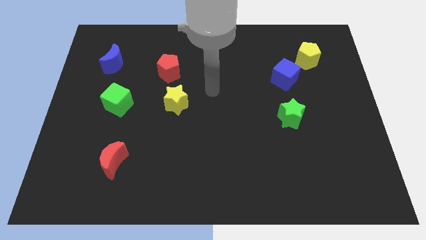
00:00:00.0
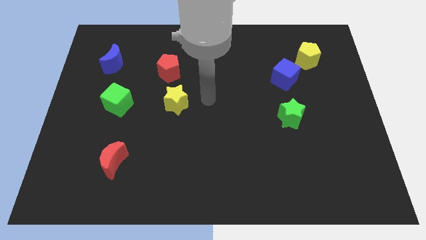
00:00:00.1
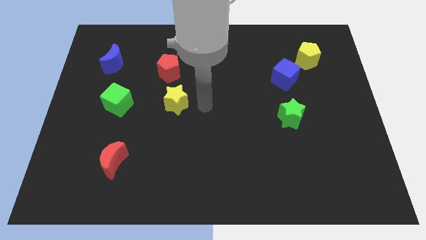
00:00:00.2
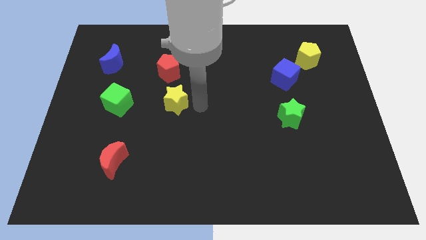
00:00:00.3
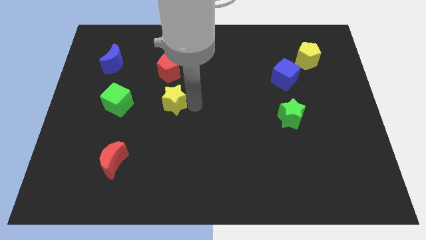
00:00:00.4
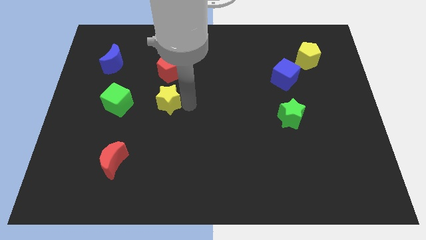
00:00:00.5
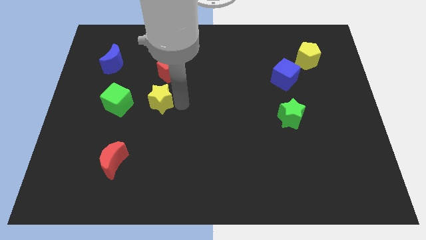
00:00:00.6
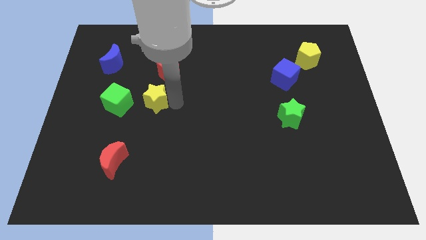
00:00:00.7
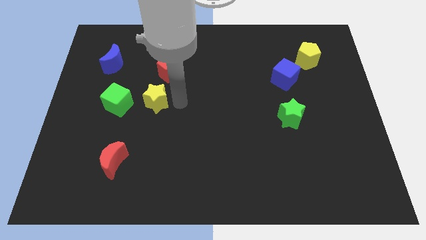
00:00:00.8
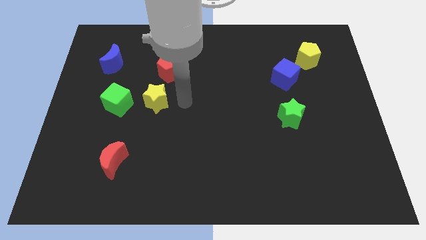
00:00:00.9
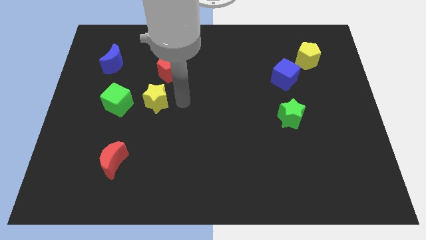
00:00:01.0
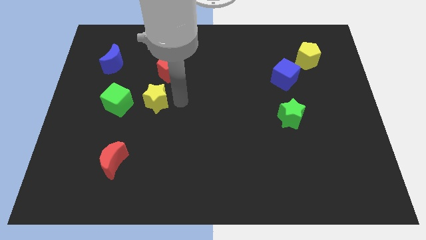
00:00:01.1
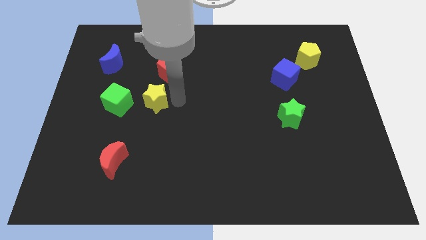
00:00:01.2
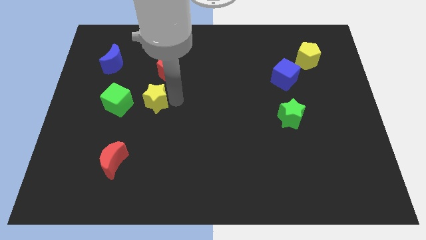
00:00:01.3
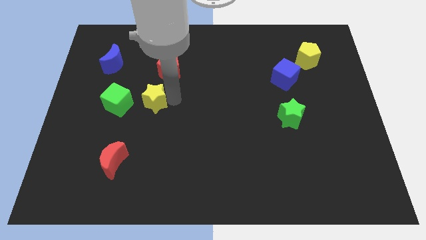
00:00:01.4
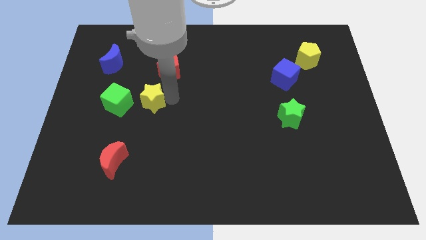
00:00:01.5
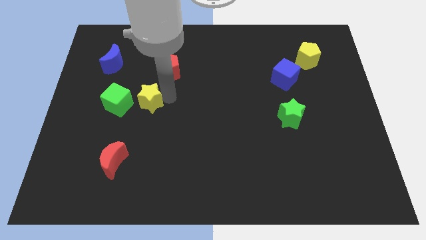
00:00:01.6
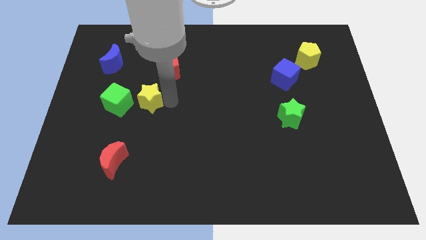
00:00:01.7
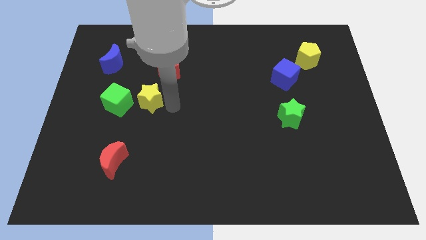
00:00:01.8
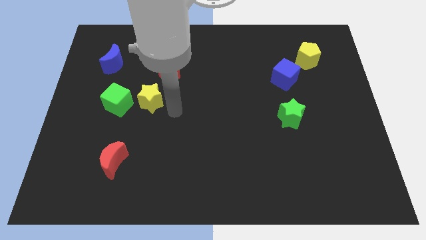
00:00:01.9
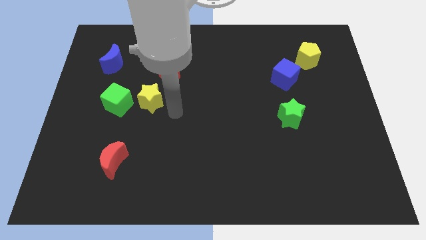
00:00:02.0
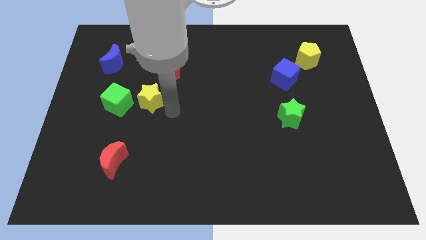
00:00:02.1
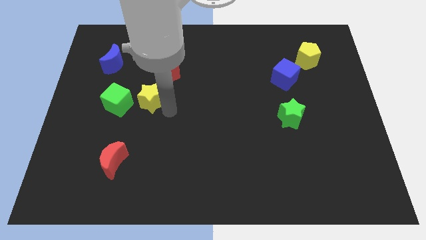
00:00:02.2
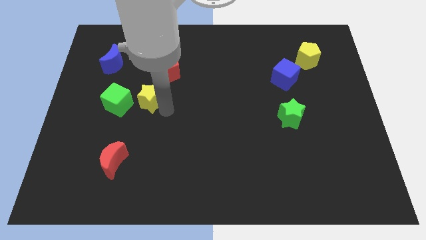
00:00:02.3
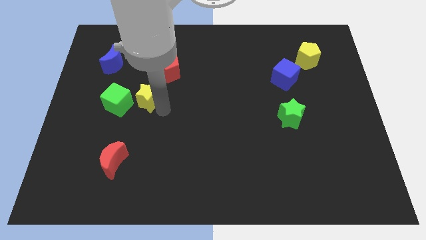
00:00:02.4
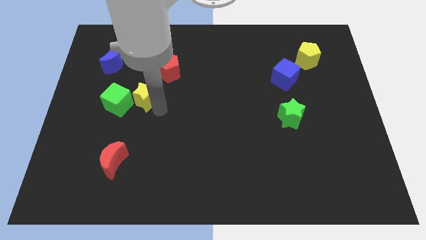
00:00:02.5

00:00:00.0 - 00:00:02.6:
move the yellow star to the left a bit

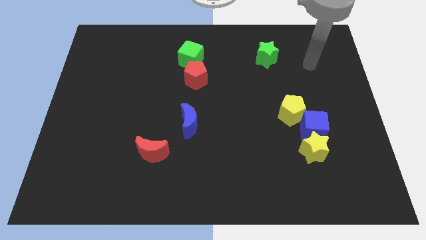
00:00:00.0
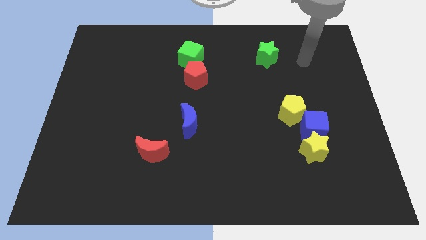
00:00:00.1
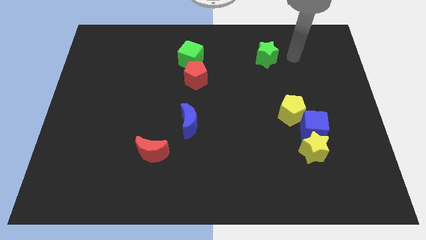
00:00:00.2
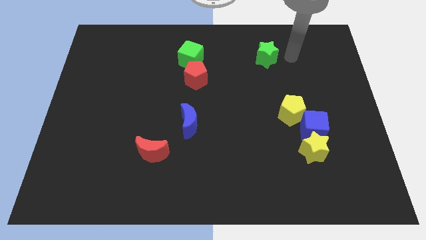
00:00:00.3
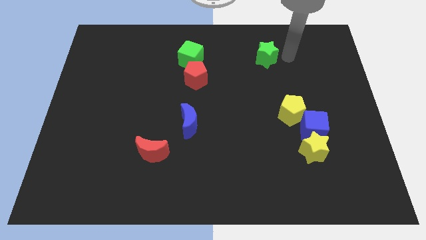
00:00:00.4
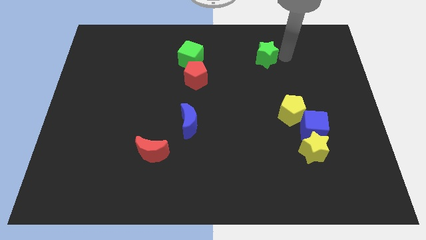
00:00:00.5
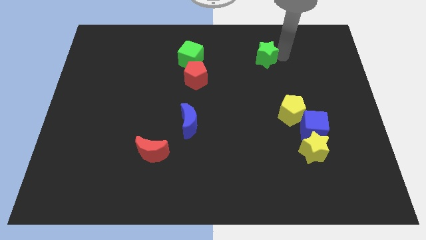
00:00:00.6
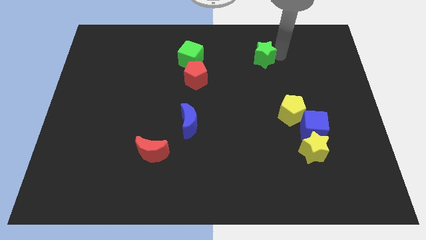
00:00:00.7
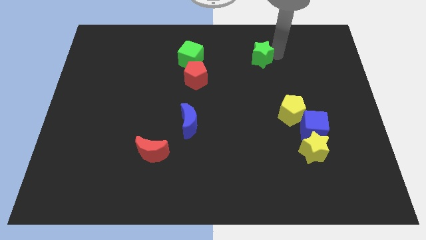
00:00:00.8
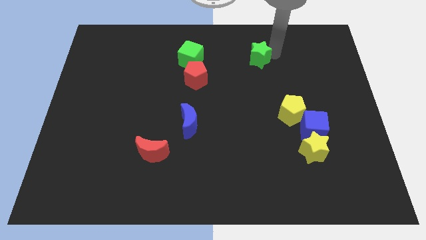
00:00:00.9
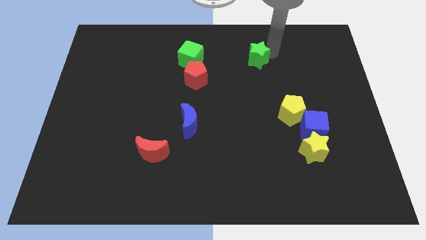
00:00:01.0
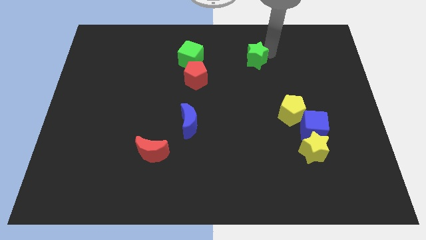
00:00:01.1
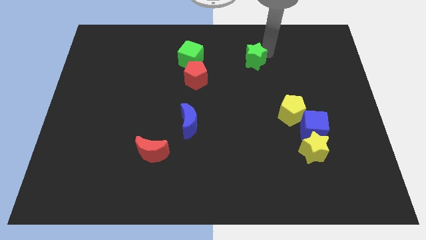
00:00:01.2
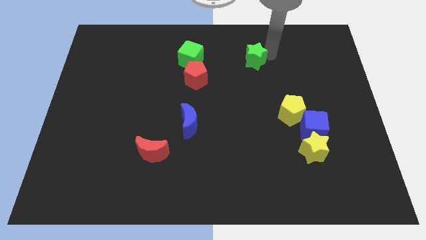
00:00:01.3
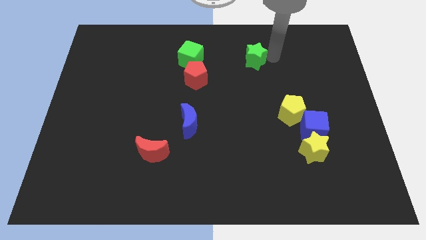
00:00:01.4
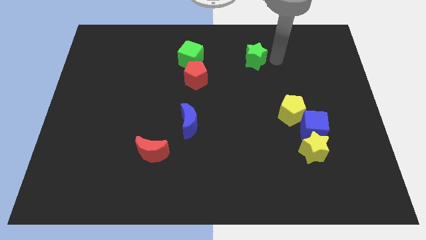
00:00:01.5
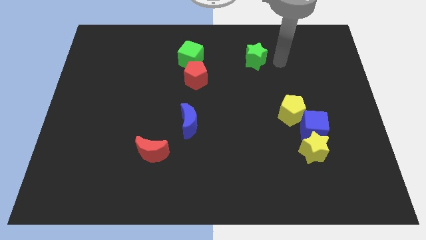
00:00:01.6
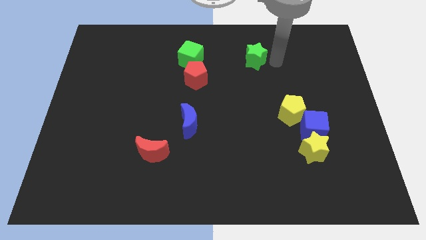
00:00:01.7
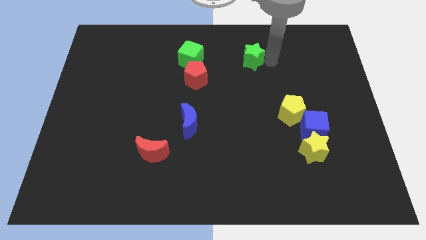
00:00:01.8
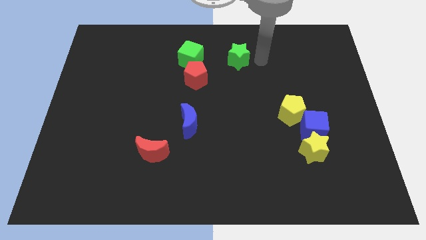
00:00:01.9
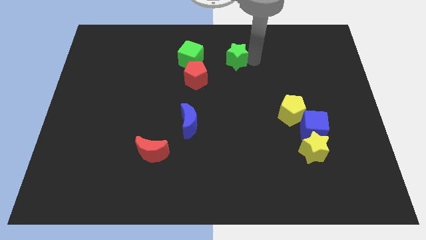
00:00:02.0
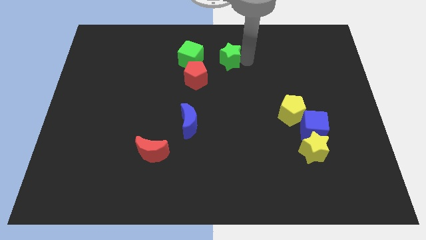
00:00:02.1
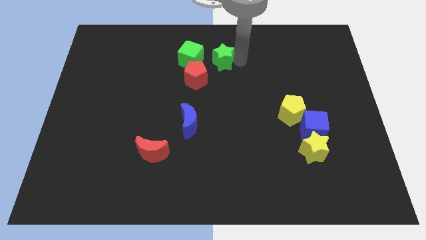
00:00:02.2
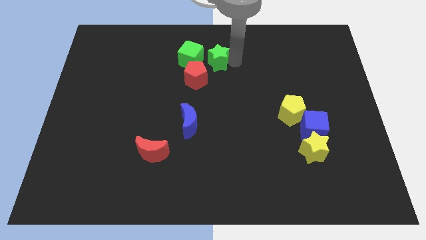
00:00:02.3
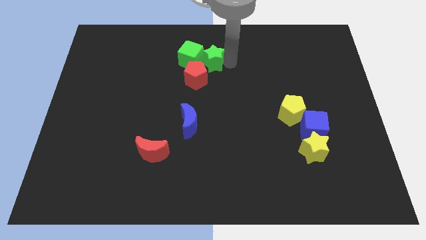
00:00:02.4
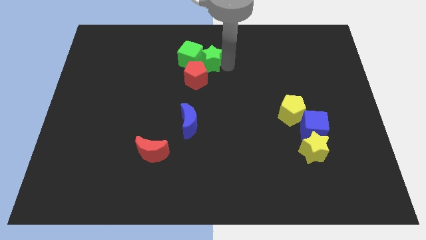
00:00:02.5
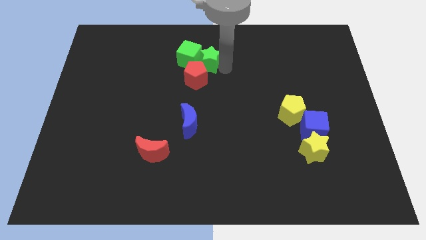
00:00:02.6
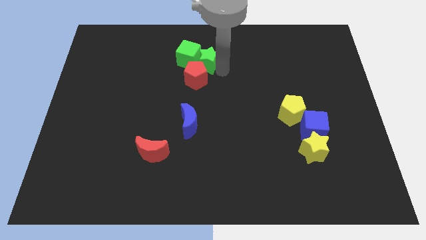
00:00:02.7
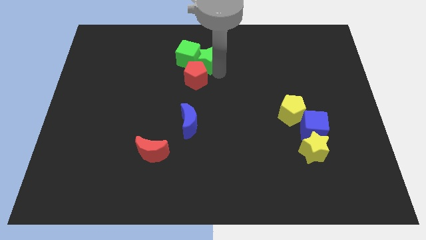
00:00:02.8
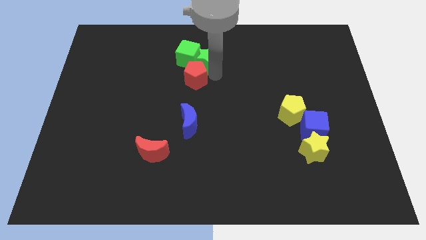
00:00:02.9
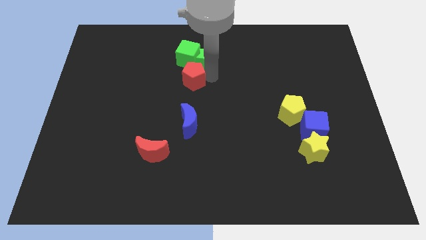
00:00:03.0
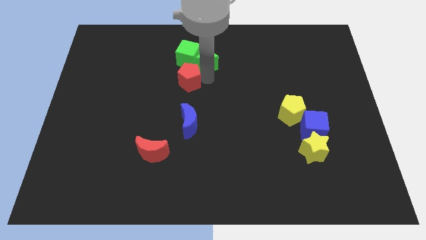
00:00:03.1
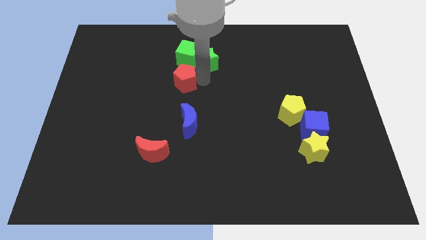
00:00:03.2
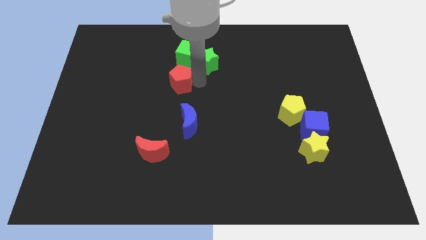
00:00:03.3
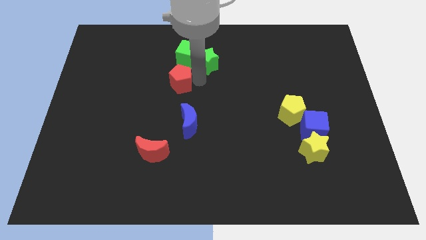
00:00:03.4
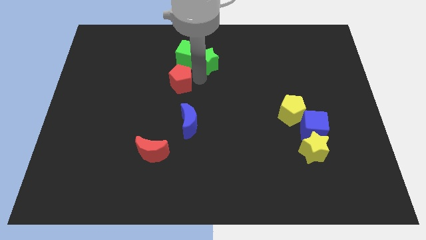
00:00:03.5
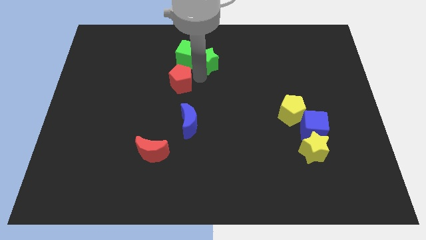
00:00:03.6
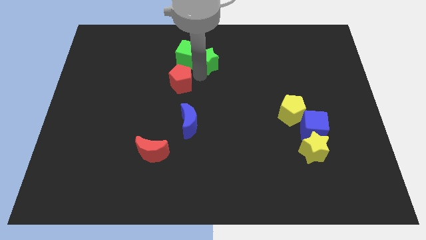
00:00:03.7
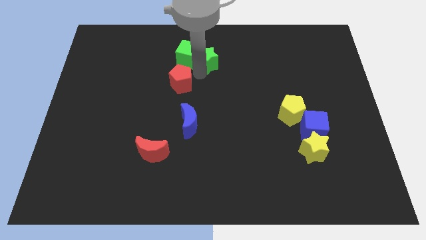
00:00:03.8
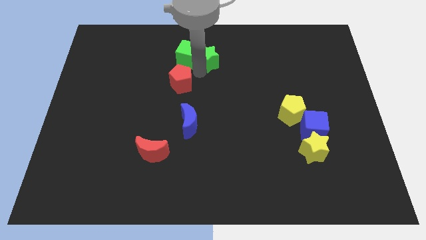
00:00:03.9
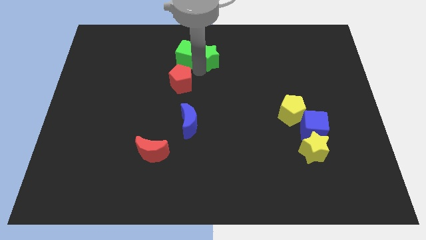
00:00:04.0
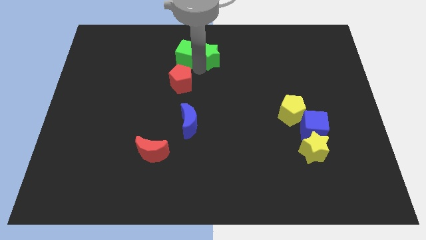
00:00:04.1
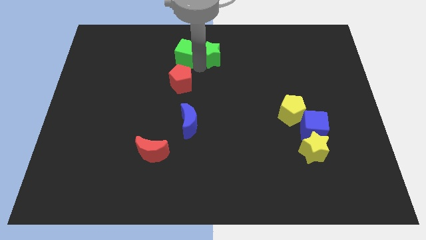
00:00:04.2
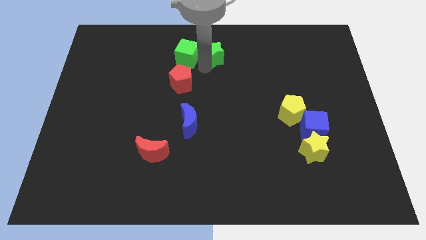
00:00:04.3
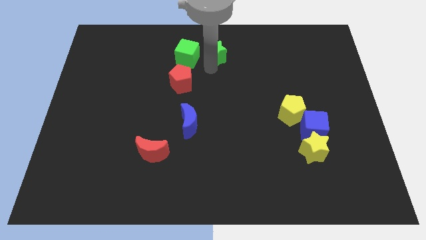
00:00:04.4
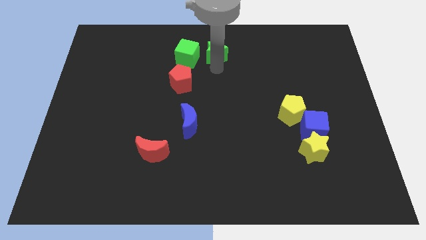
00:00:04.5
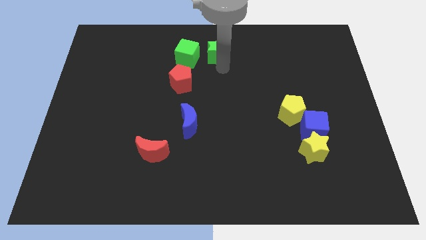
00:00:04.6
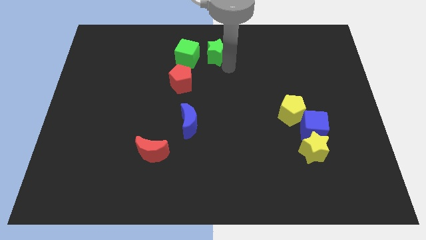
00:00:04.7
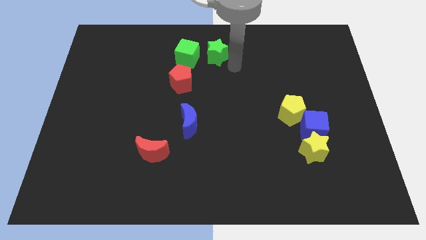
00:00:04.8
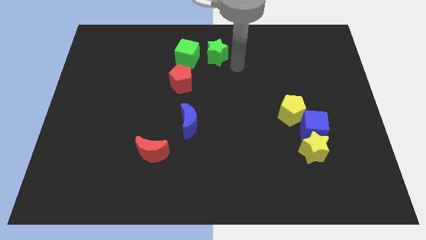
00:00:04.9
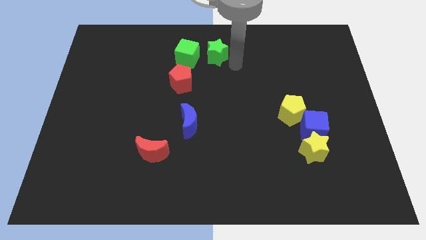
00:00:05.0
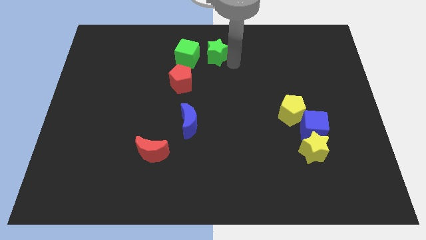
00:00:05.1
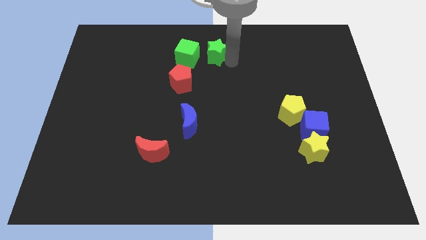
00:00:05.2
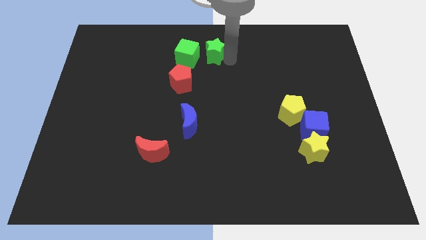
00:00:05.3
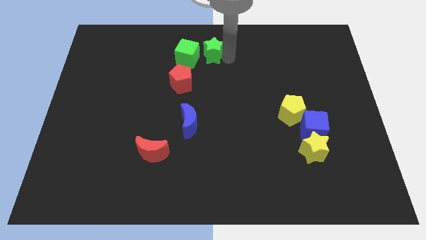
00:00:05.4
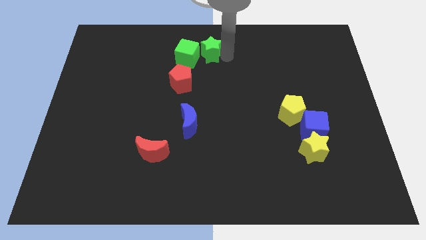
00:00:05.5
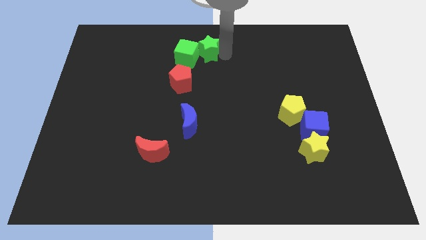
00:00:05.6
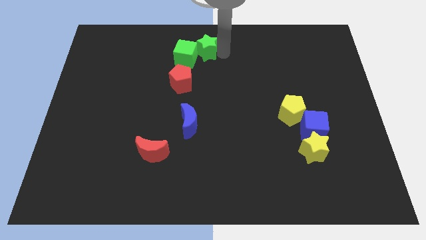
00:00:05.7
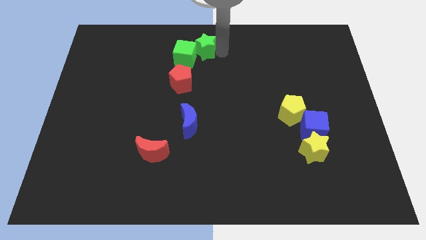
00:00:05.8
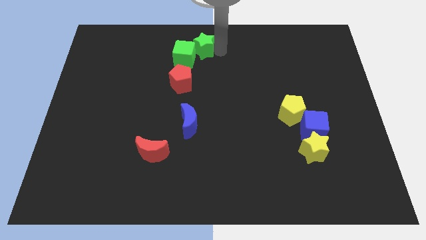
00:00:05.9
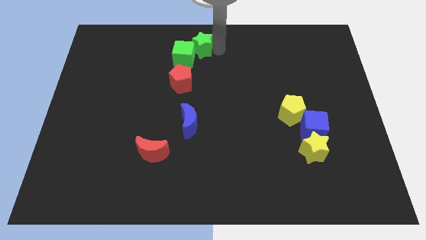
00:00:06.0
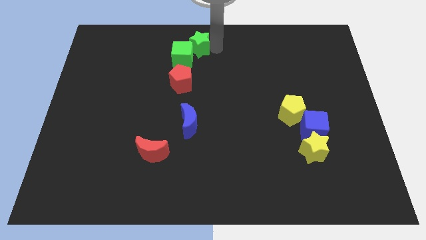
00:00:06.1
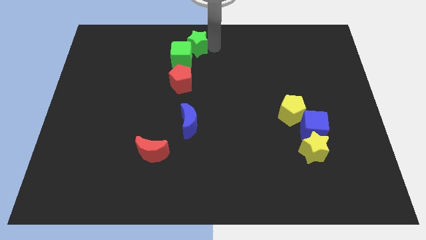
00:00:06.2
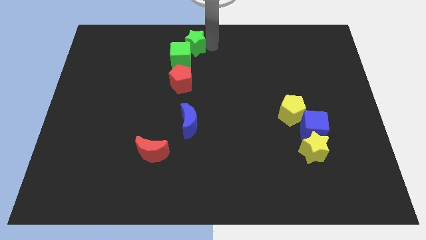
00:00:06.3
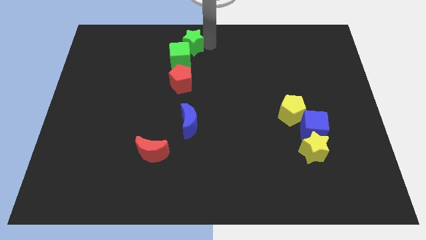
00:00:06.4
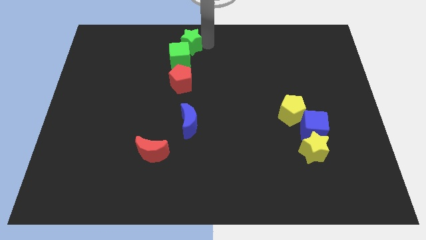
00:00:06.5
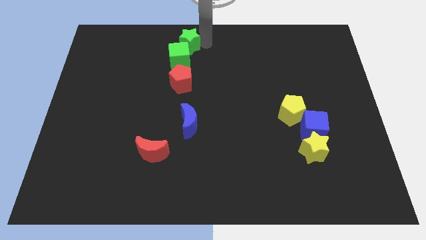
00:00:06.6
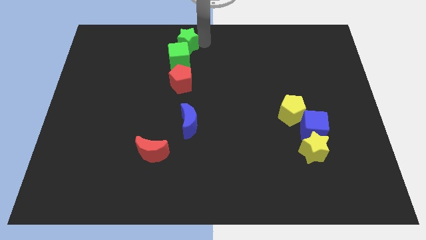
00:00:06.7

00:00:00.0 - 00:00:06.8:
slide the green star to the left
